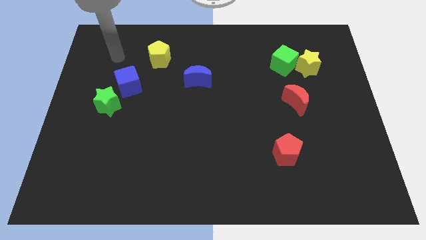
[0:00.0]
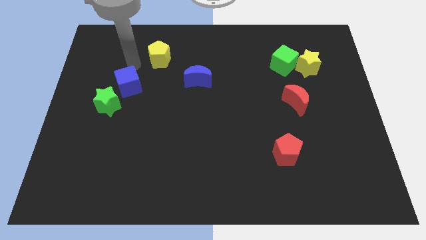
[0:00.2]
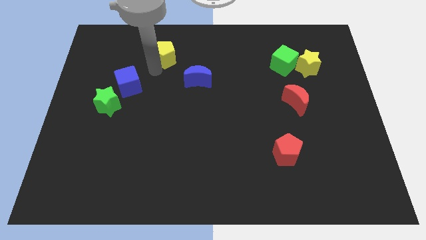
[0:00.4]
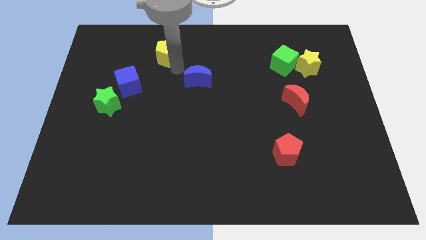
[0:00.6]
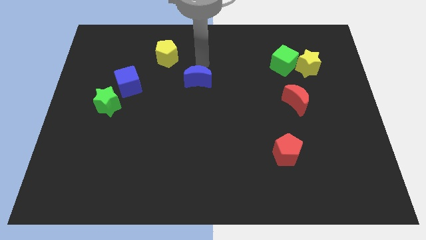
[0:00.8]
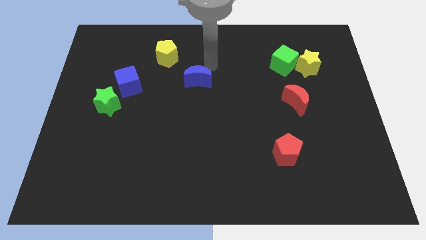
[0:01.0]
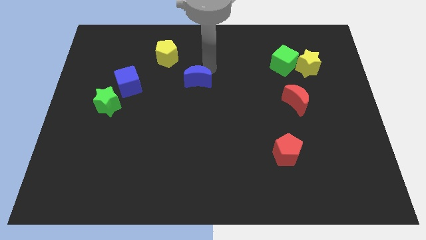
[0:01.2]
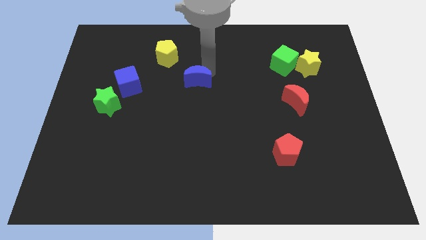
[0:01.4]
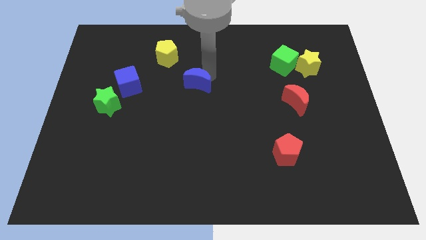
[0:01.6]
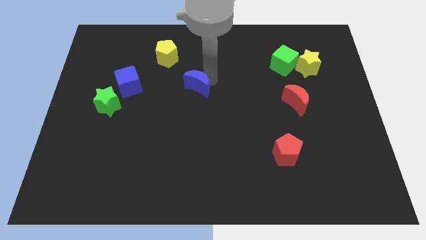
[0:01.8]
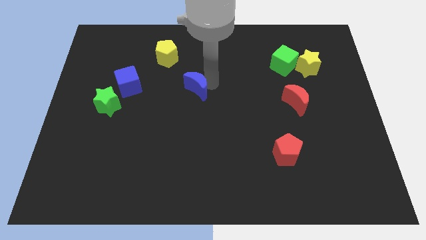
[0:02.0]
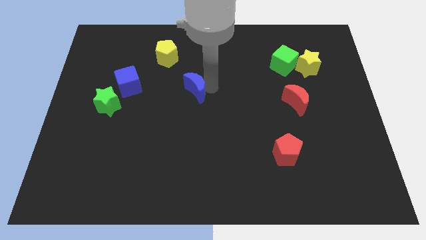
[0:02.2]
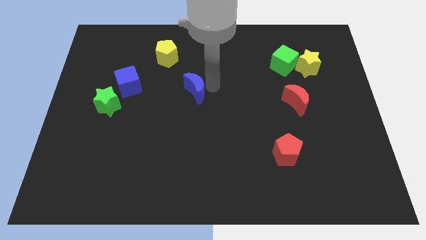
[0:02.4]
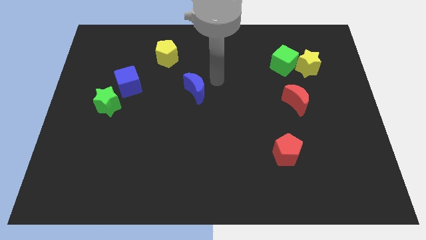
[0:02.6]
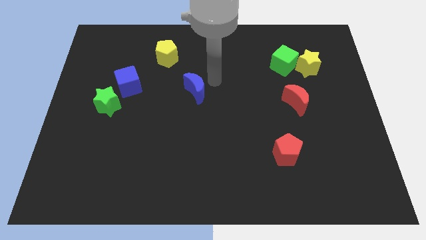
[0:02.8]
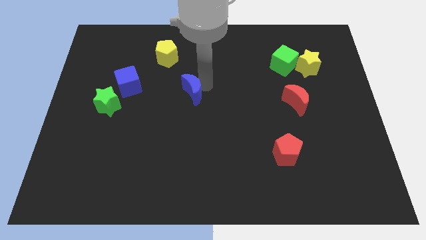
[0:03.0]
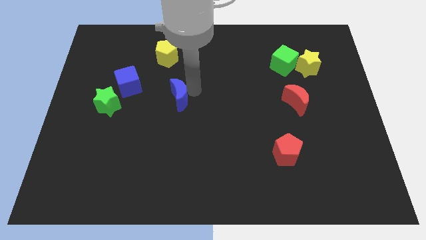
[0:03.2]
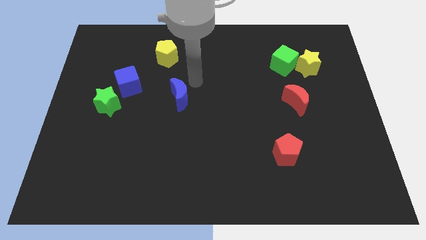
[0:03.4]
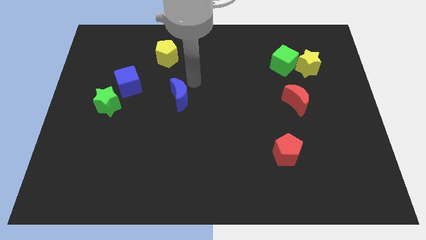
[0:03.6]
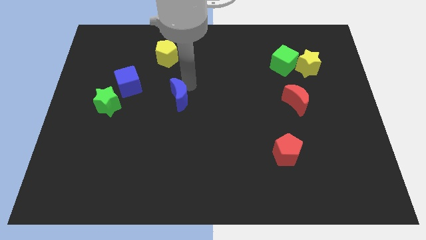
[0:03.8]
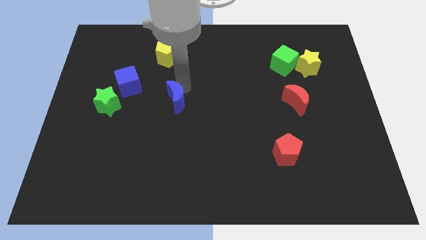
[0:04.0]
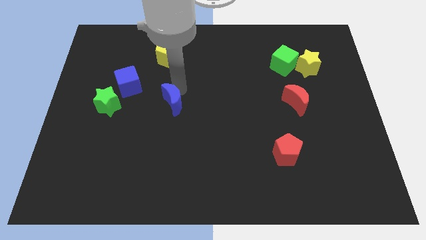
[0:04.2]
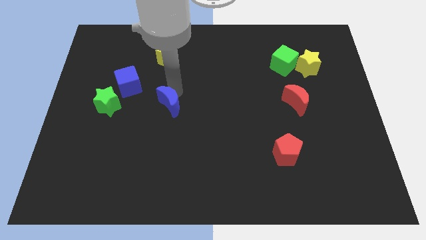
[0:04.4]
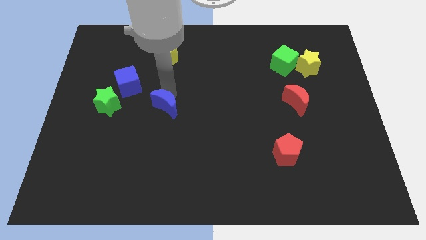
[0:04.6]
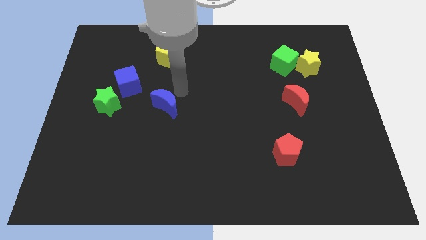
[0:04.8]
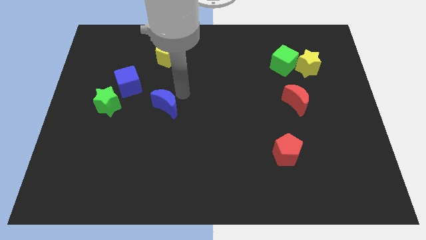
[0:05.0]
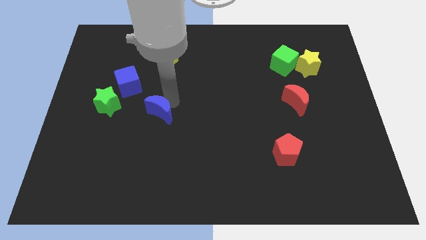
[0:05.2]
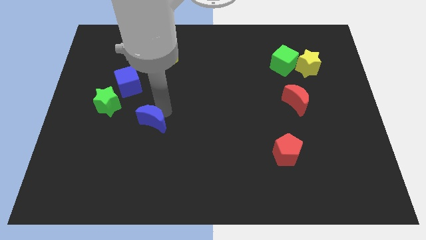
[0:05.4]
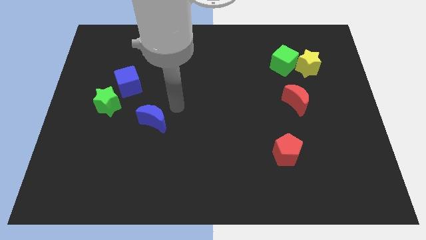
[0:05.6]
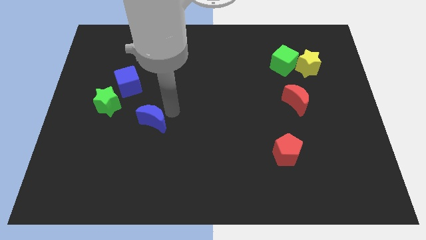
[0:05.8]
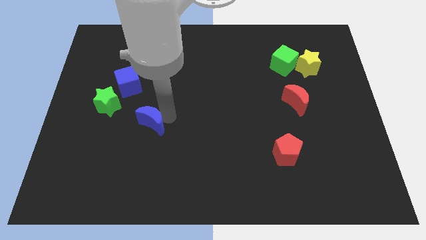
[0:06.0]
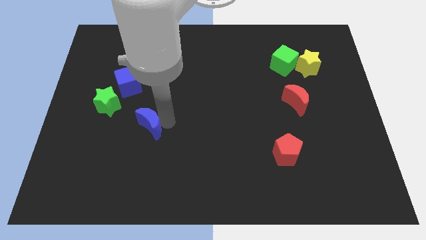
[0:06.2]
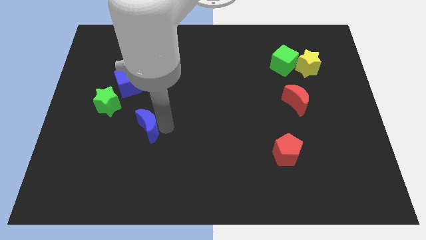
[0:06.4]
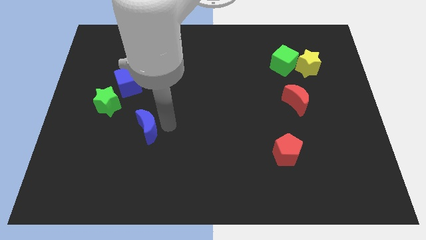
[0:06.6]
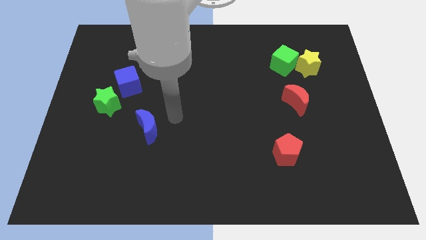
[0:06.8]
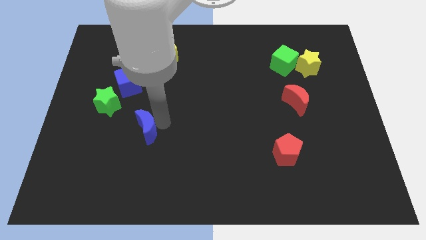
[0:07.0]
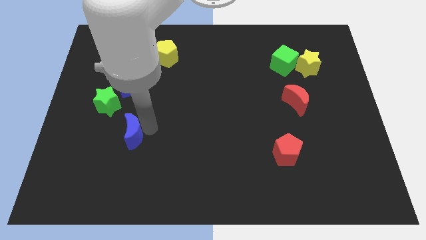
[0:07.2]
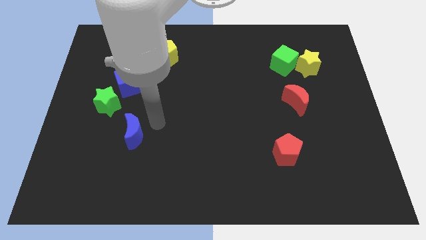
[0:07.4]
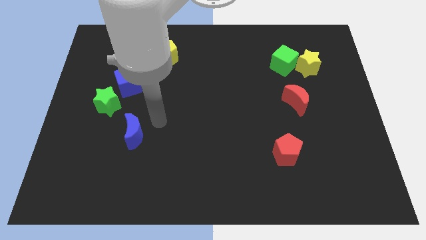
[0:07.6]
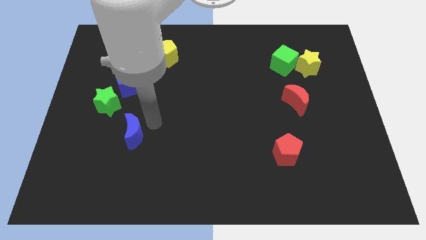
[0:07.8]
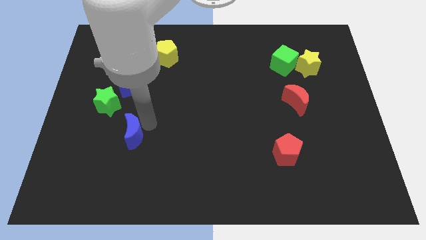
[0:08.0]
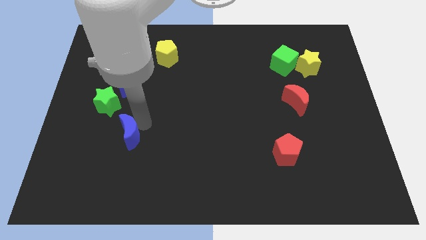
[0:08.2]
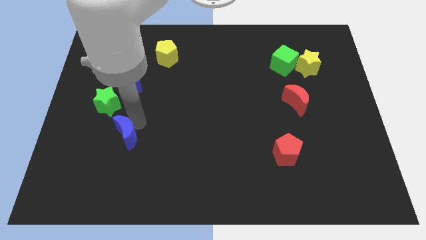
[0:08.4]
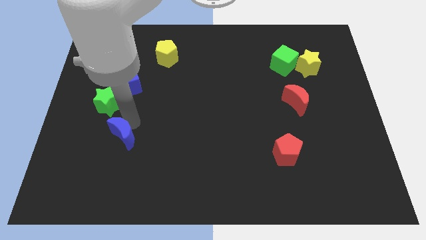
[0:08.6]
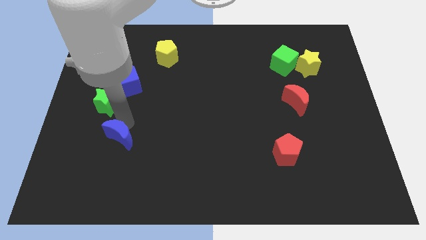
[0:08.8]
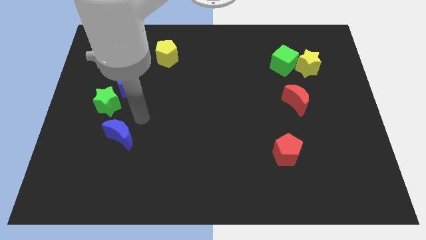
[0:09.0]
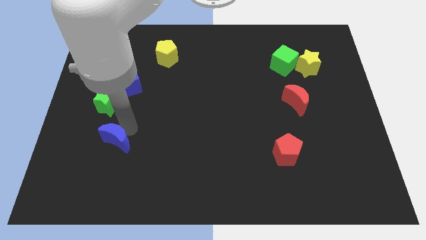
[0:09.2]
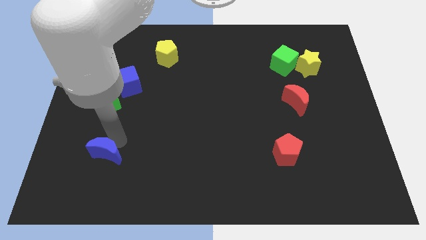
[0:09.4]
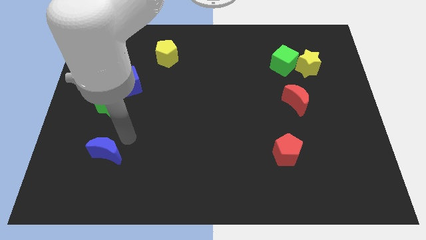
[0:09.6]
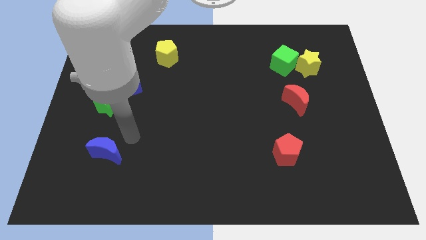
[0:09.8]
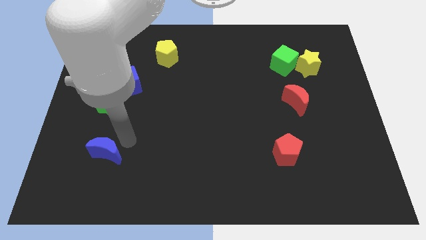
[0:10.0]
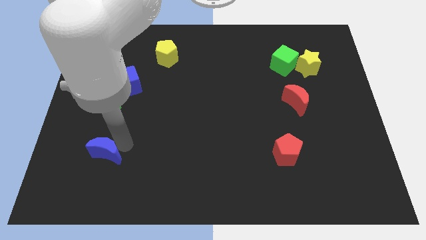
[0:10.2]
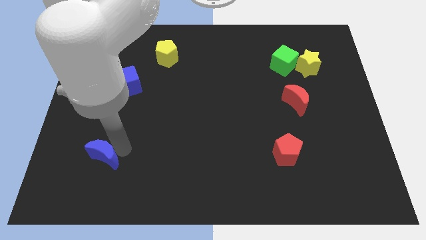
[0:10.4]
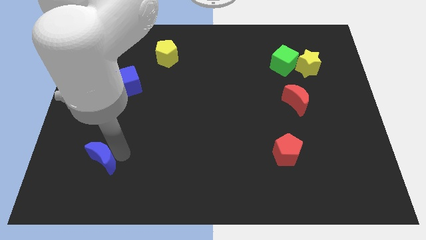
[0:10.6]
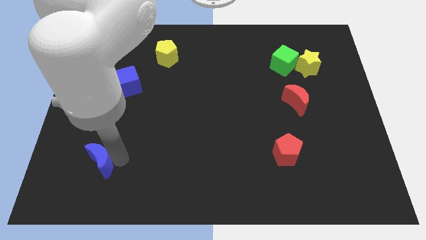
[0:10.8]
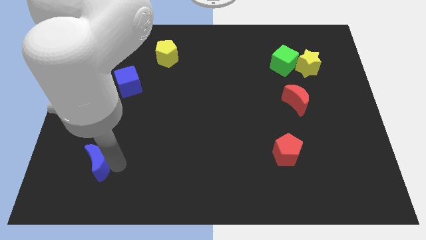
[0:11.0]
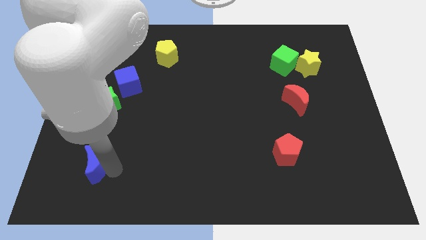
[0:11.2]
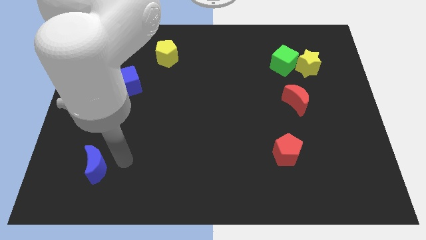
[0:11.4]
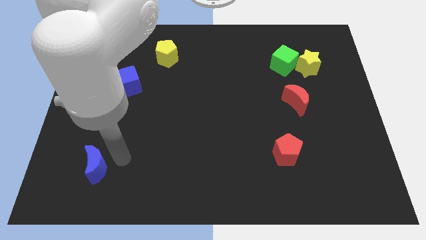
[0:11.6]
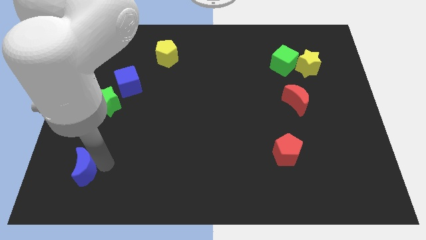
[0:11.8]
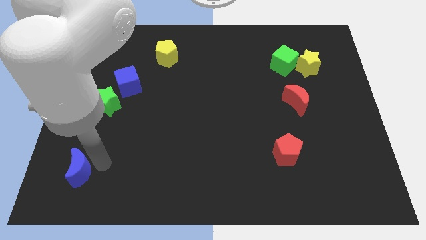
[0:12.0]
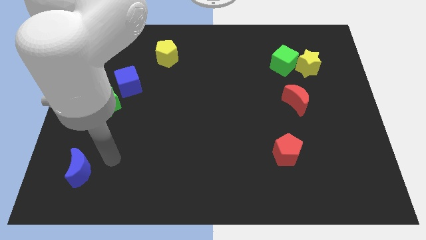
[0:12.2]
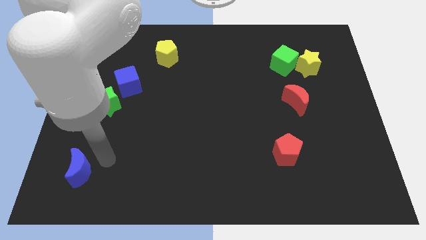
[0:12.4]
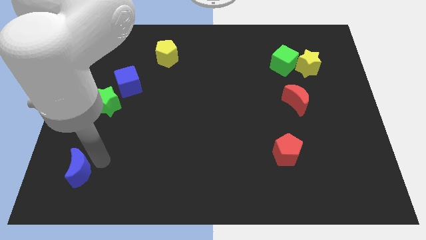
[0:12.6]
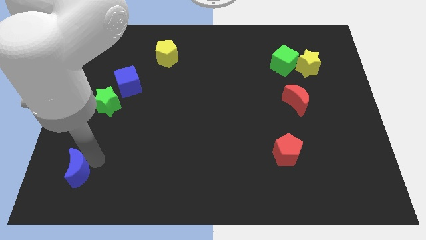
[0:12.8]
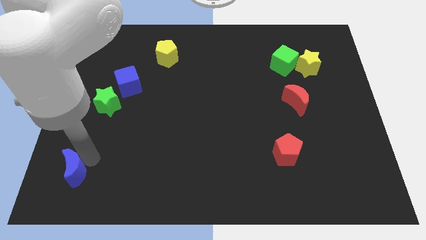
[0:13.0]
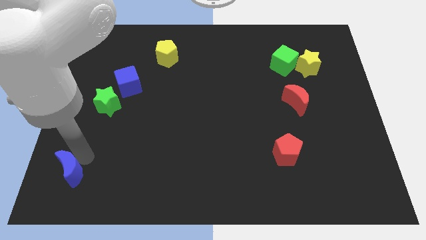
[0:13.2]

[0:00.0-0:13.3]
push the blue moon to the bottom left corner
